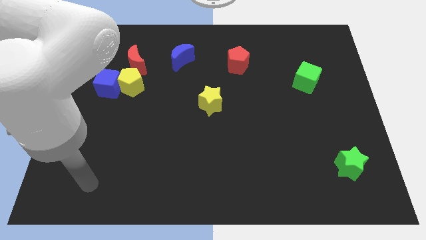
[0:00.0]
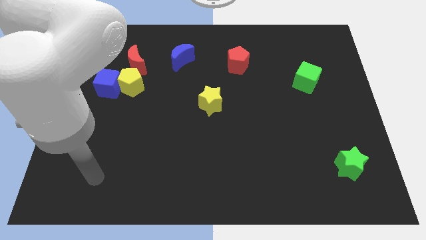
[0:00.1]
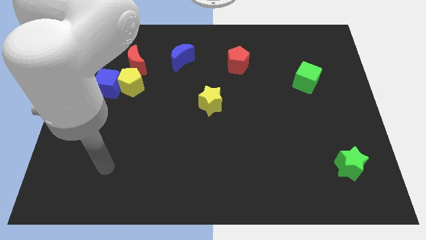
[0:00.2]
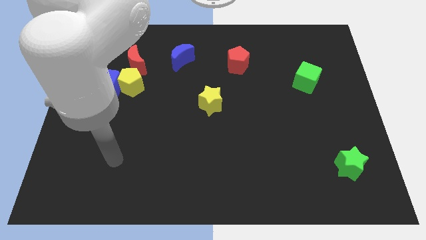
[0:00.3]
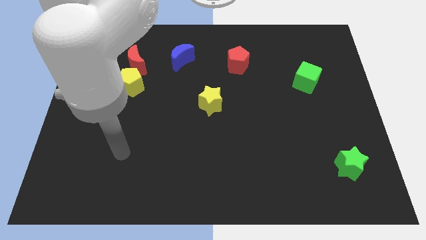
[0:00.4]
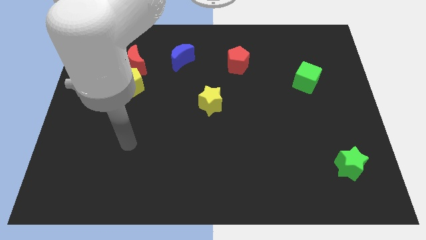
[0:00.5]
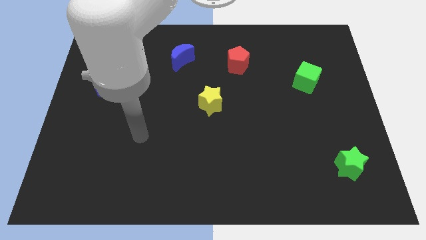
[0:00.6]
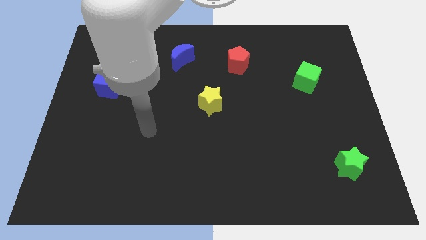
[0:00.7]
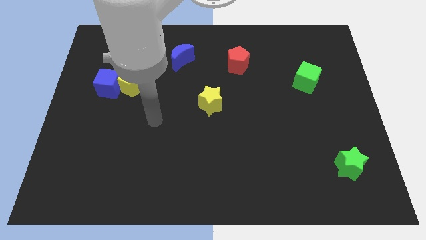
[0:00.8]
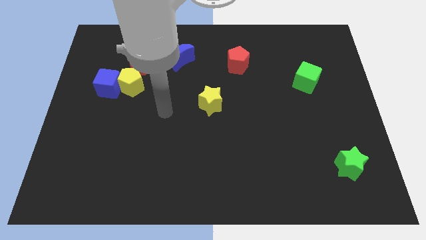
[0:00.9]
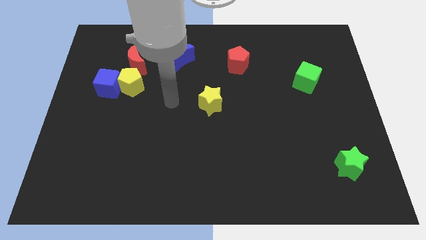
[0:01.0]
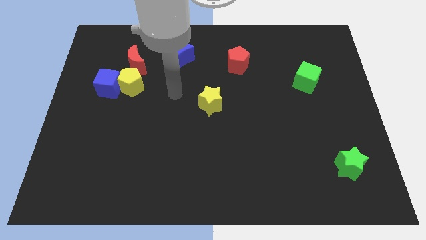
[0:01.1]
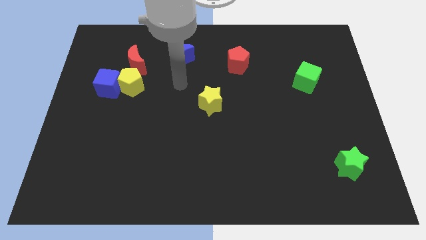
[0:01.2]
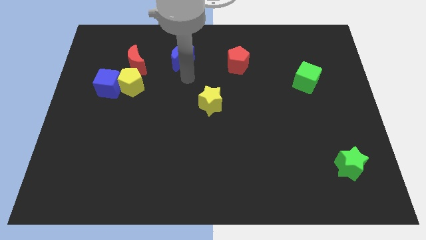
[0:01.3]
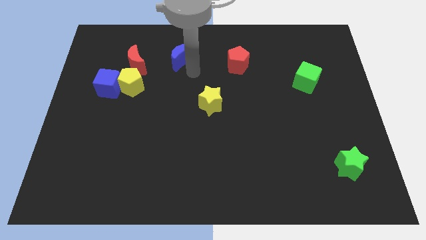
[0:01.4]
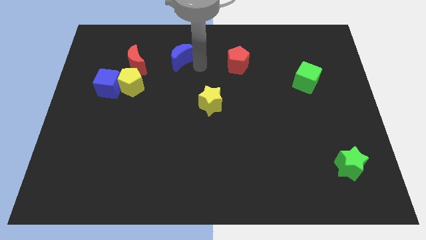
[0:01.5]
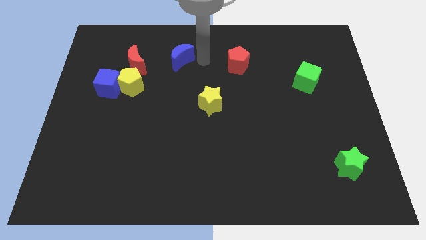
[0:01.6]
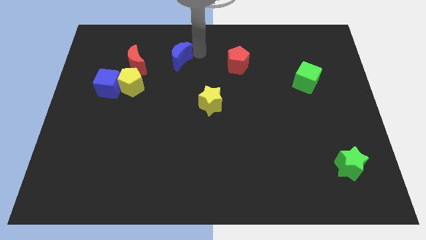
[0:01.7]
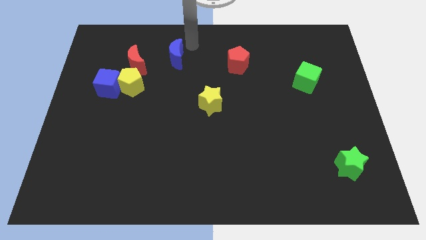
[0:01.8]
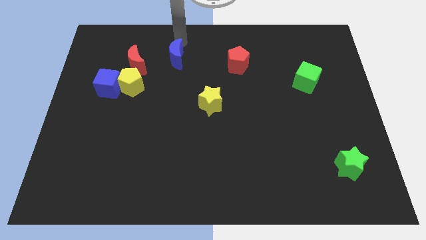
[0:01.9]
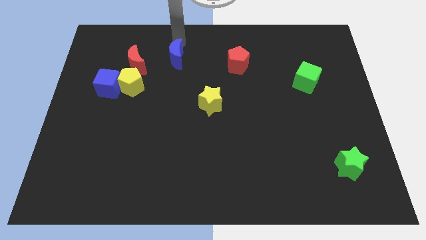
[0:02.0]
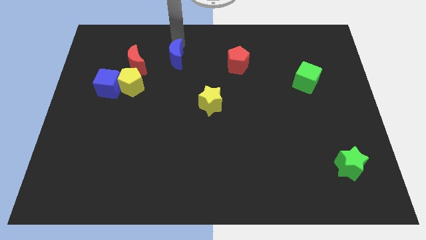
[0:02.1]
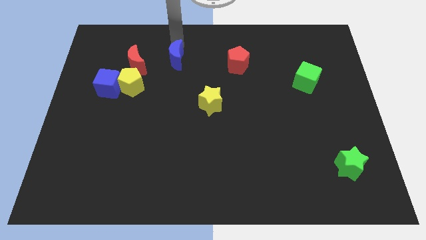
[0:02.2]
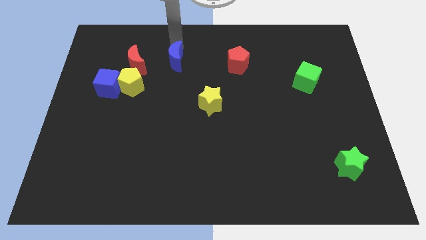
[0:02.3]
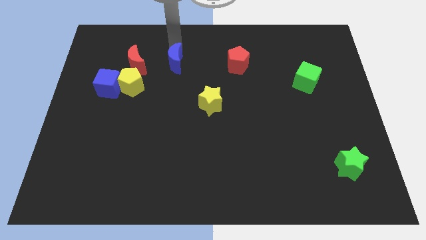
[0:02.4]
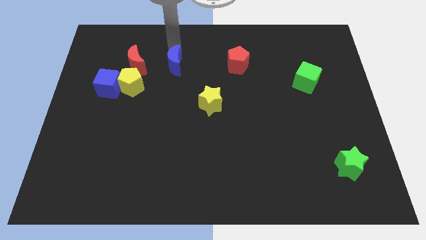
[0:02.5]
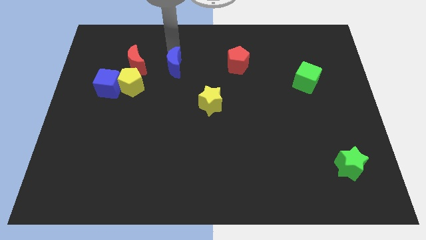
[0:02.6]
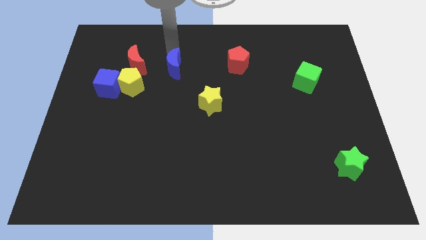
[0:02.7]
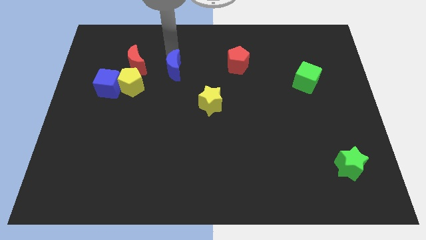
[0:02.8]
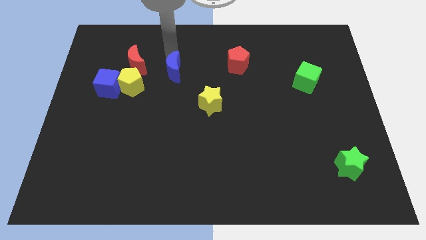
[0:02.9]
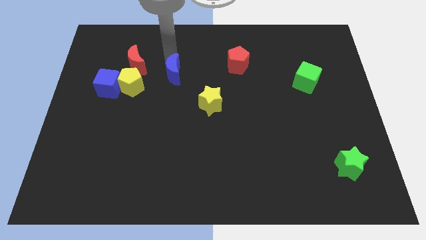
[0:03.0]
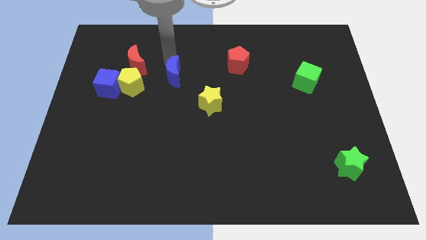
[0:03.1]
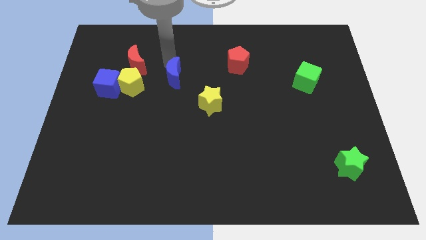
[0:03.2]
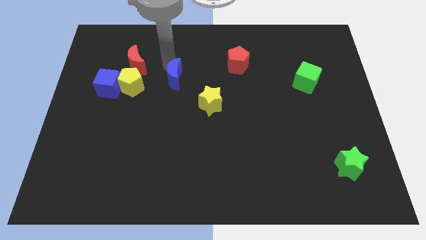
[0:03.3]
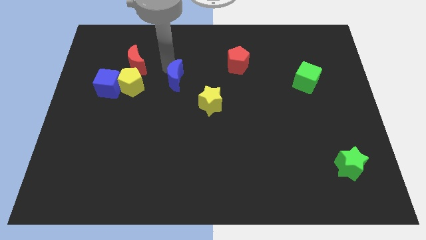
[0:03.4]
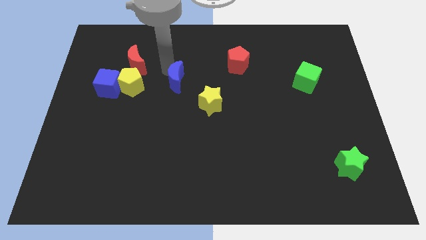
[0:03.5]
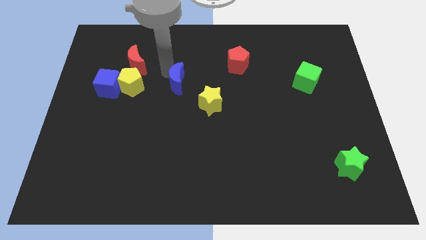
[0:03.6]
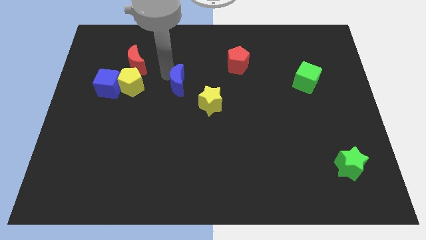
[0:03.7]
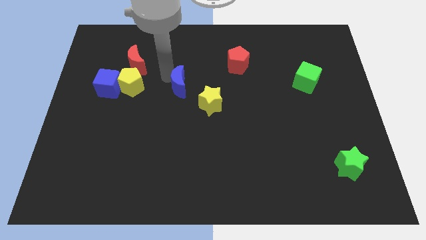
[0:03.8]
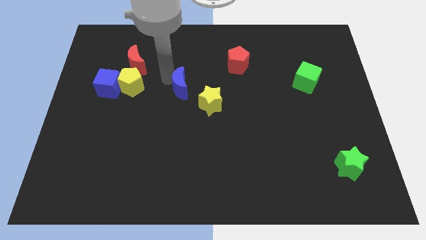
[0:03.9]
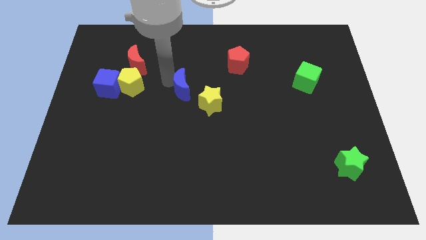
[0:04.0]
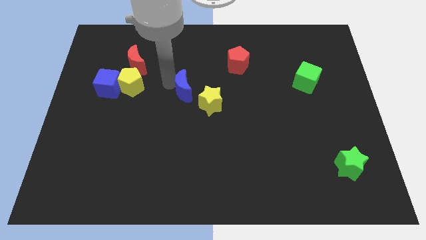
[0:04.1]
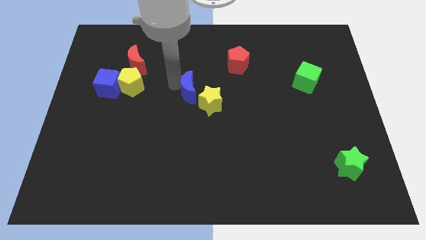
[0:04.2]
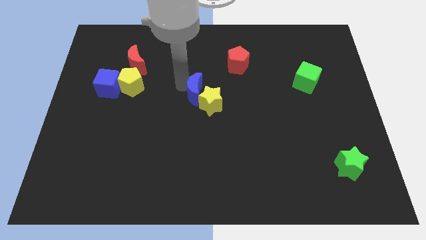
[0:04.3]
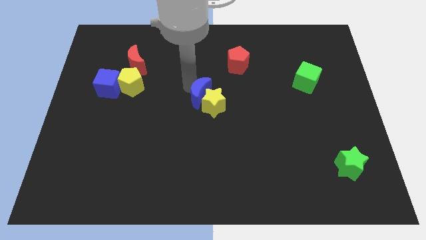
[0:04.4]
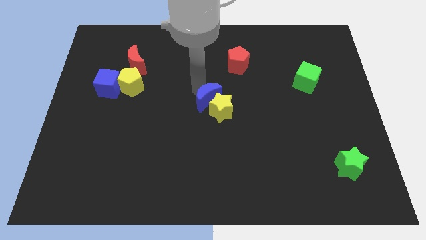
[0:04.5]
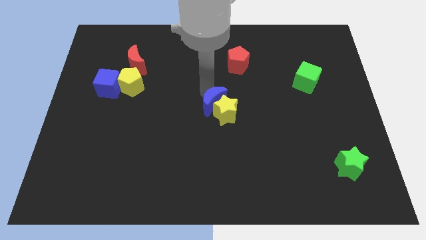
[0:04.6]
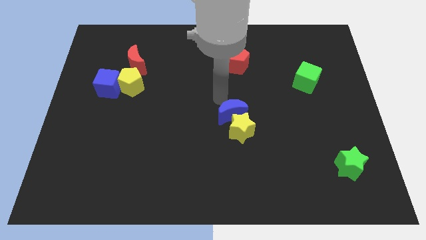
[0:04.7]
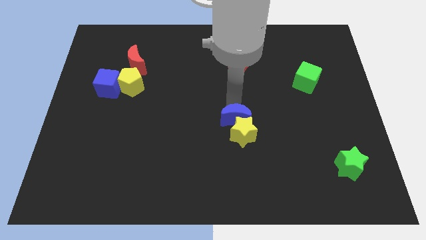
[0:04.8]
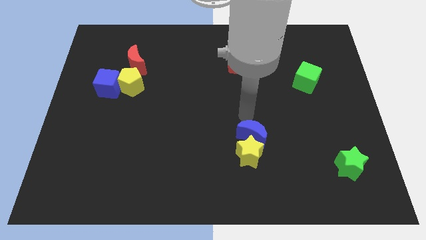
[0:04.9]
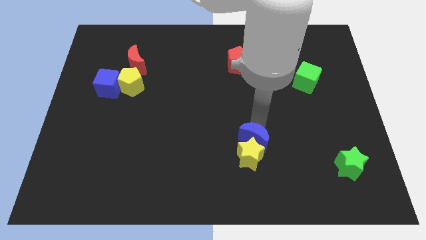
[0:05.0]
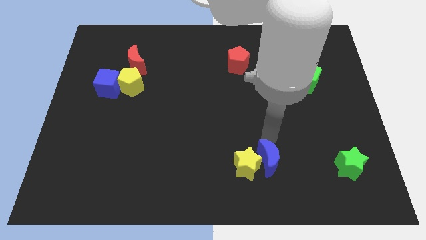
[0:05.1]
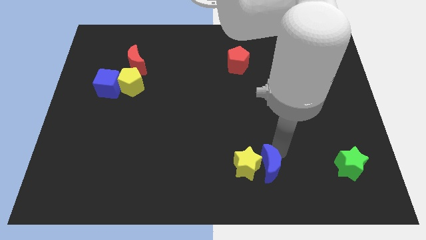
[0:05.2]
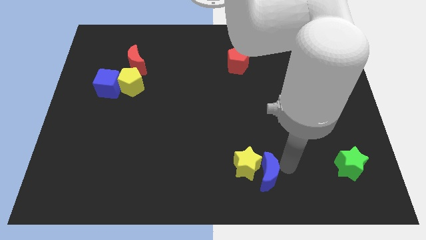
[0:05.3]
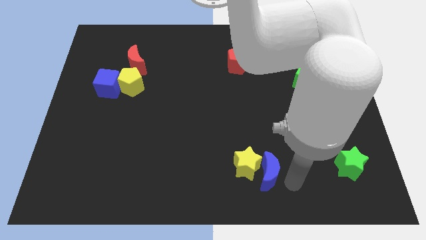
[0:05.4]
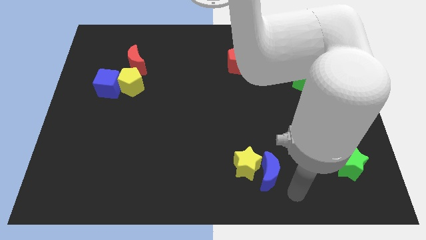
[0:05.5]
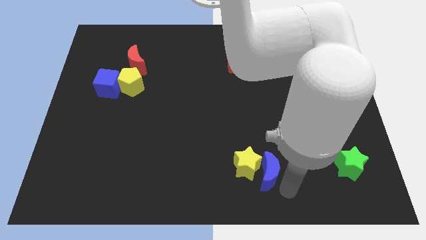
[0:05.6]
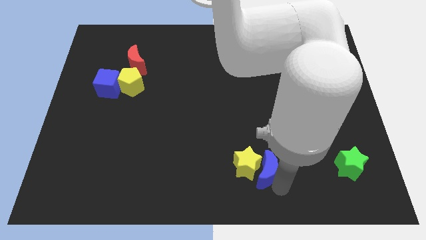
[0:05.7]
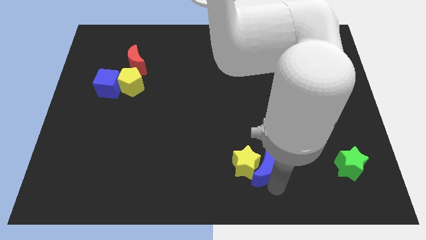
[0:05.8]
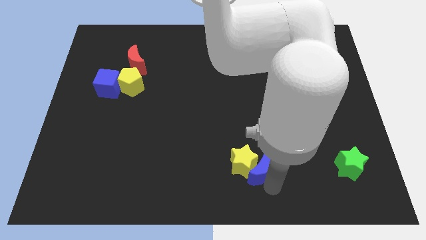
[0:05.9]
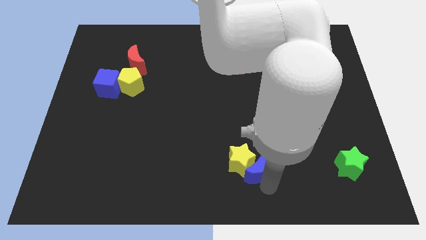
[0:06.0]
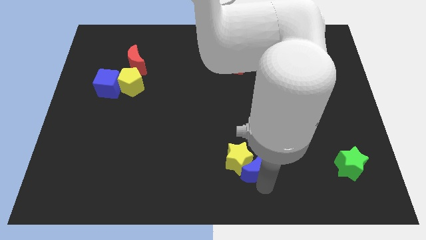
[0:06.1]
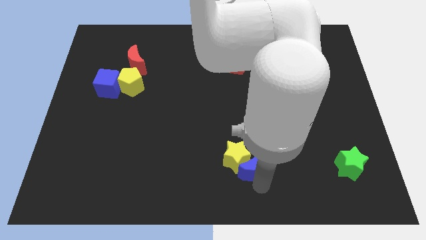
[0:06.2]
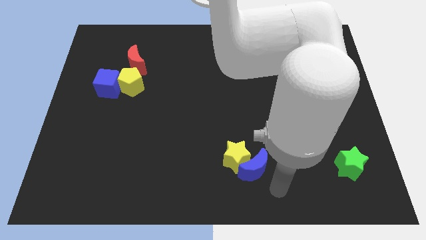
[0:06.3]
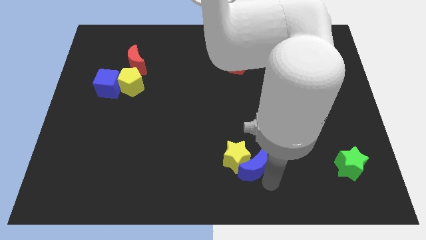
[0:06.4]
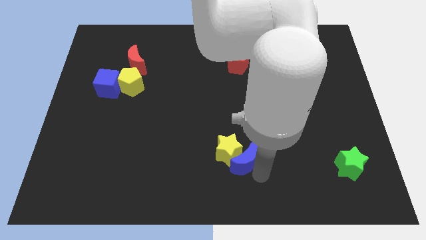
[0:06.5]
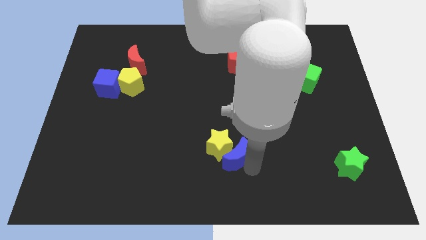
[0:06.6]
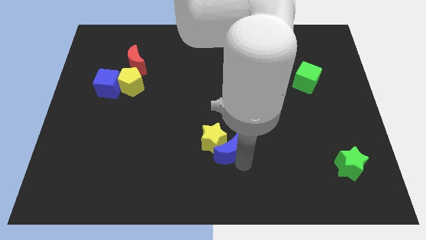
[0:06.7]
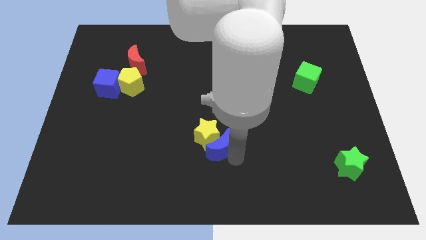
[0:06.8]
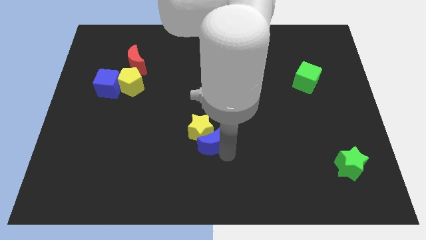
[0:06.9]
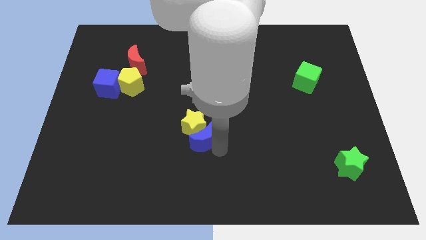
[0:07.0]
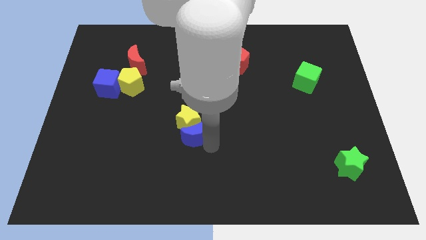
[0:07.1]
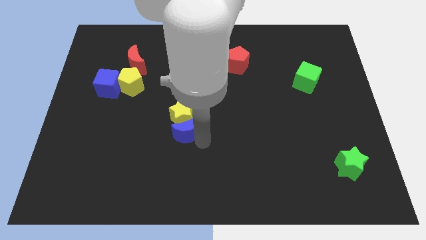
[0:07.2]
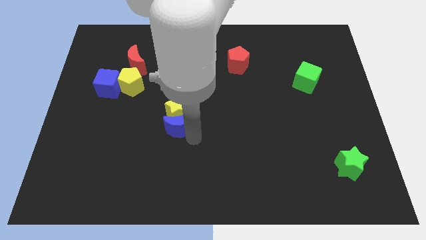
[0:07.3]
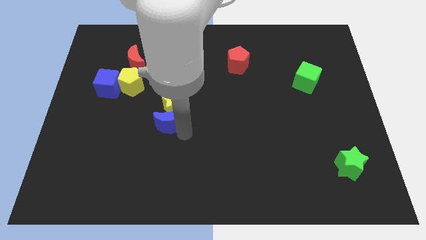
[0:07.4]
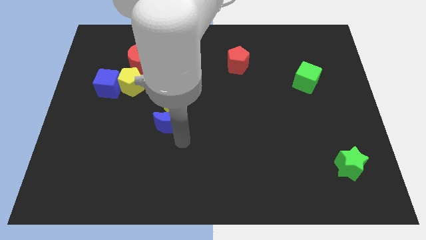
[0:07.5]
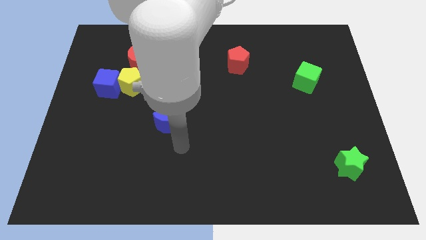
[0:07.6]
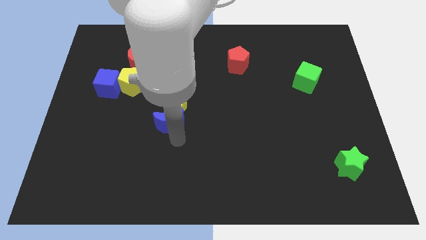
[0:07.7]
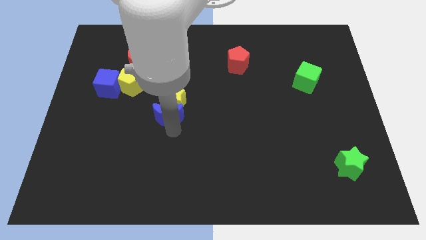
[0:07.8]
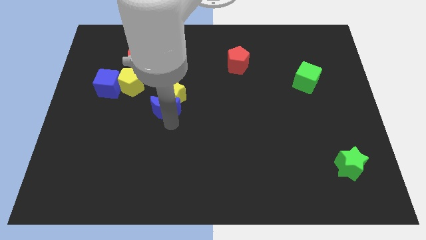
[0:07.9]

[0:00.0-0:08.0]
slightly move the blue moon downwards and then left

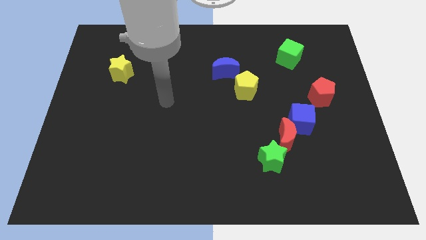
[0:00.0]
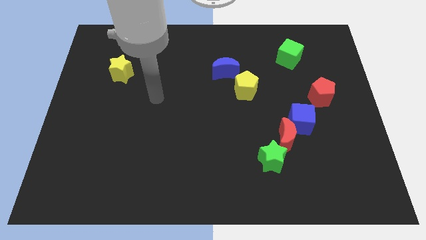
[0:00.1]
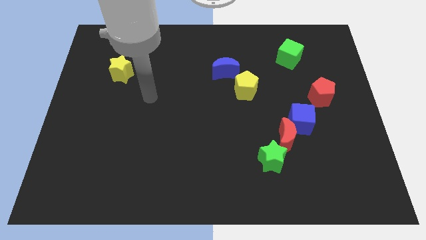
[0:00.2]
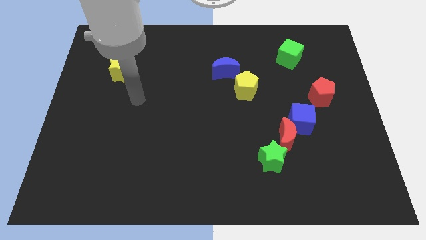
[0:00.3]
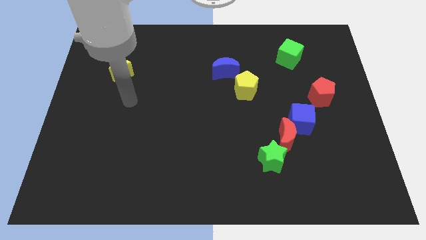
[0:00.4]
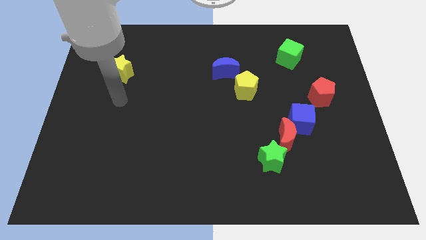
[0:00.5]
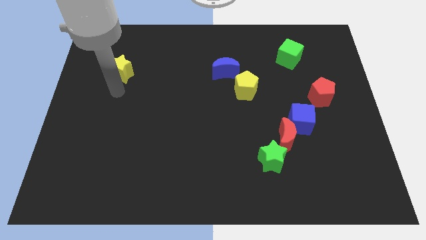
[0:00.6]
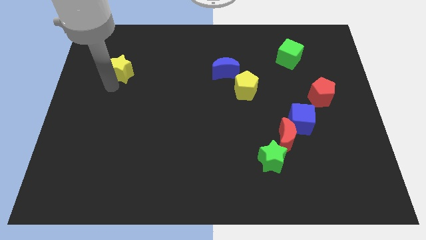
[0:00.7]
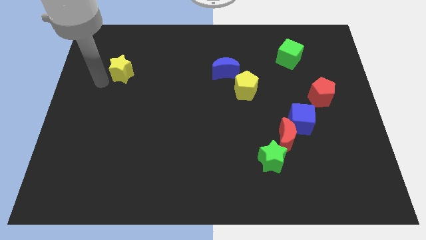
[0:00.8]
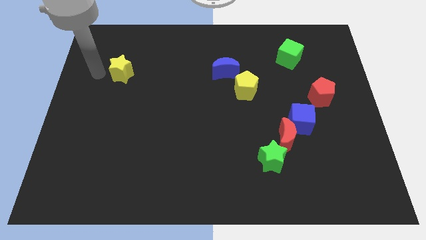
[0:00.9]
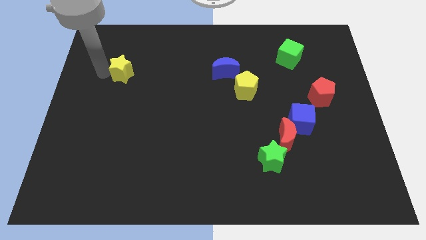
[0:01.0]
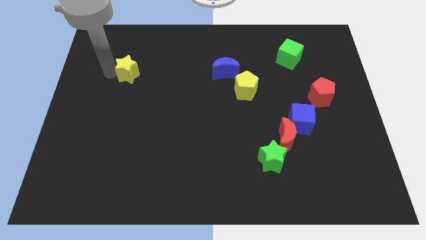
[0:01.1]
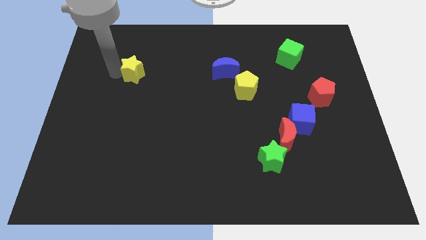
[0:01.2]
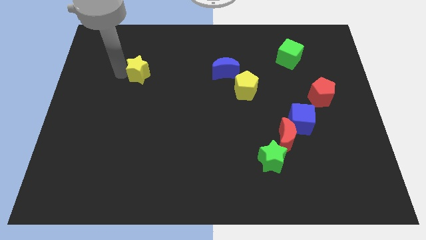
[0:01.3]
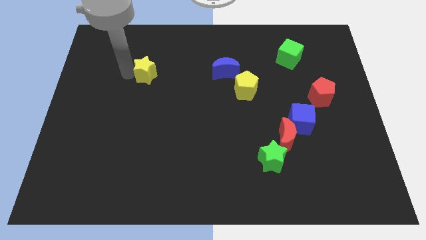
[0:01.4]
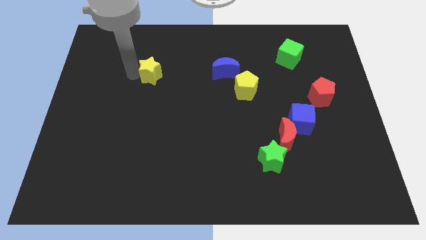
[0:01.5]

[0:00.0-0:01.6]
slide the yellow star slightly right
